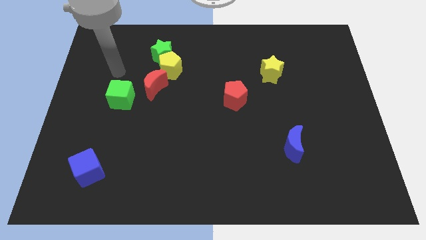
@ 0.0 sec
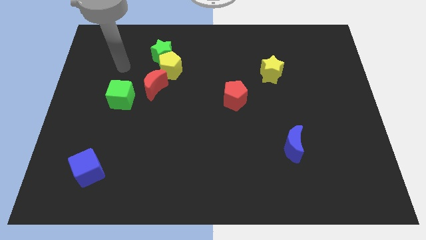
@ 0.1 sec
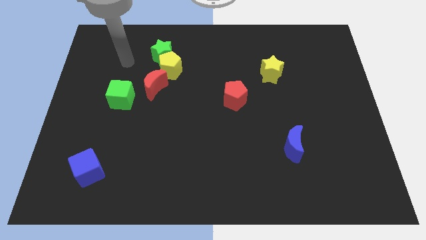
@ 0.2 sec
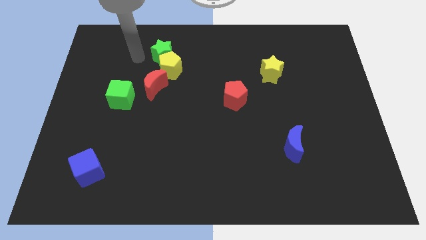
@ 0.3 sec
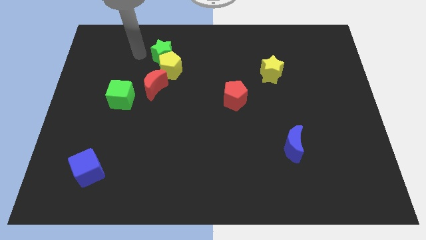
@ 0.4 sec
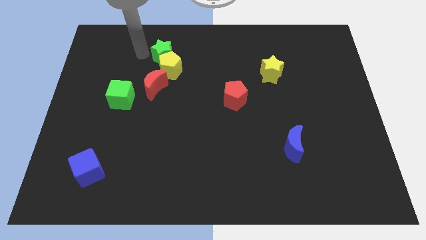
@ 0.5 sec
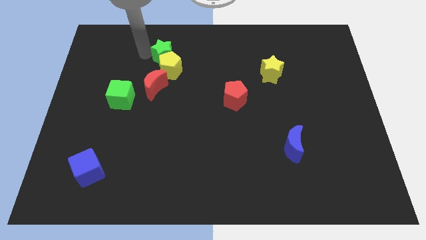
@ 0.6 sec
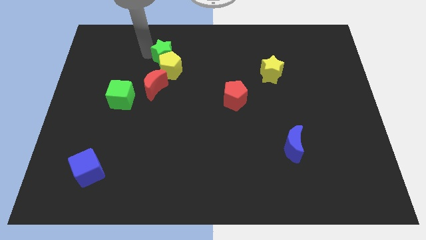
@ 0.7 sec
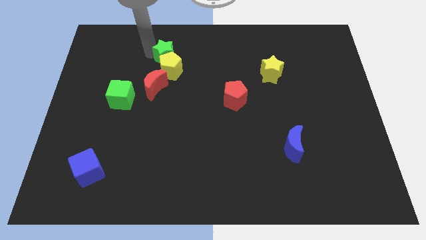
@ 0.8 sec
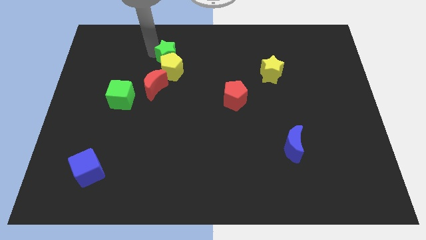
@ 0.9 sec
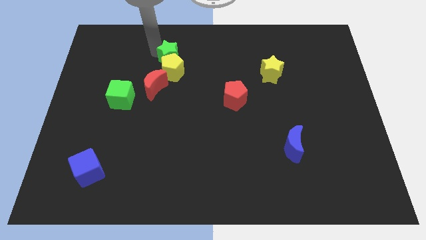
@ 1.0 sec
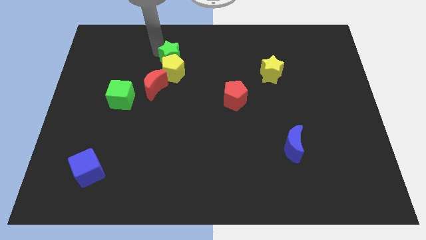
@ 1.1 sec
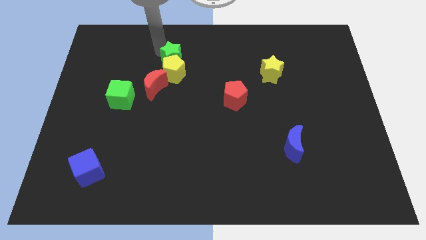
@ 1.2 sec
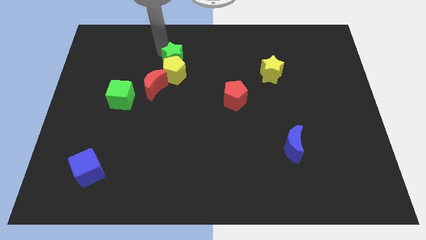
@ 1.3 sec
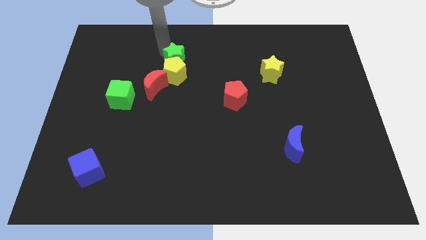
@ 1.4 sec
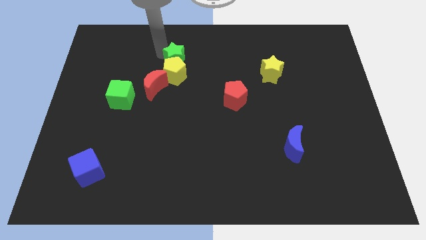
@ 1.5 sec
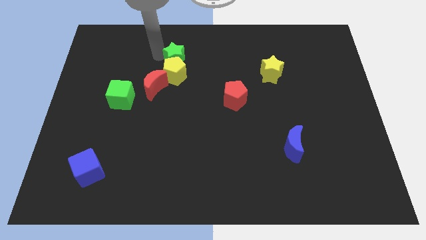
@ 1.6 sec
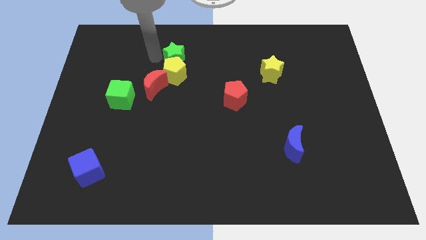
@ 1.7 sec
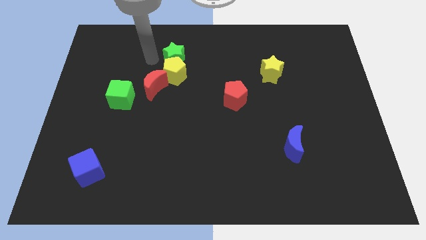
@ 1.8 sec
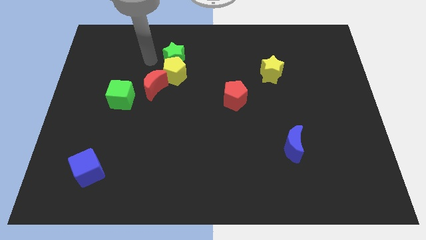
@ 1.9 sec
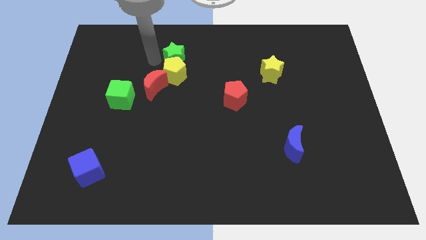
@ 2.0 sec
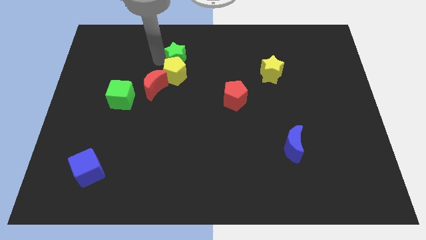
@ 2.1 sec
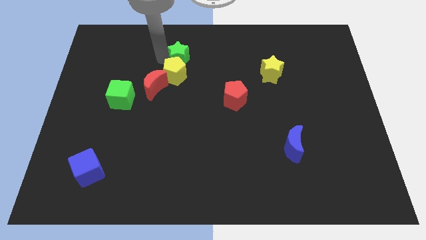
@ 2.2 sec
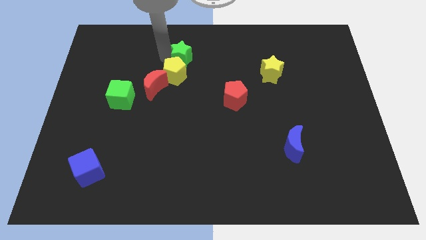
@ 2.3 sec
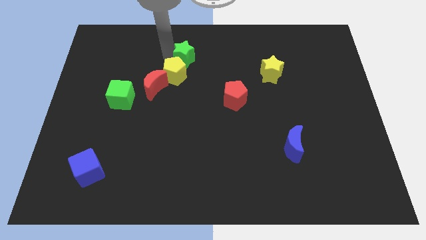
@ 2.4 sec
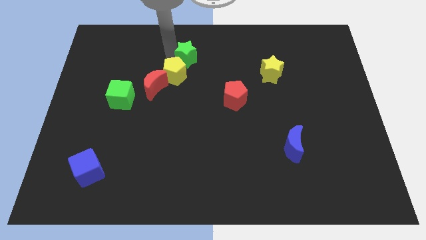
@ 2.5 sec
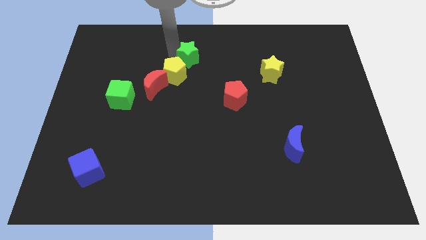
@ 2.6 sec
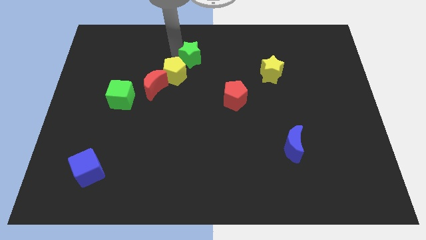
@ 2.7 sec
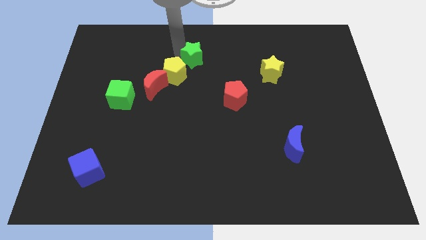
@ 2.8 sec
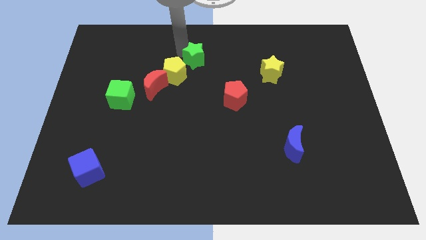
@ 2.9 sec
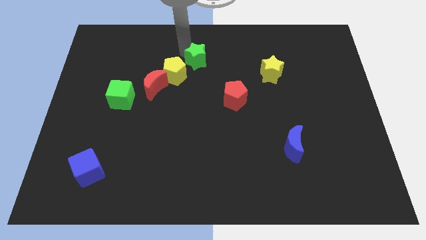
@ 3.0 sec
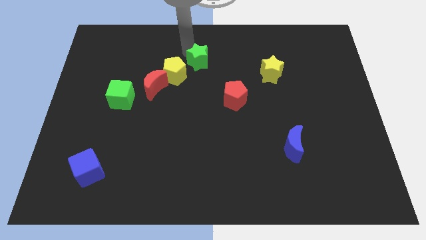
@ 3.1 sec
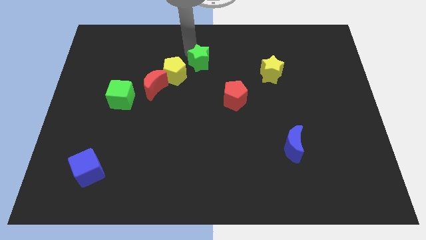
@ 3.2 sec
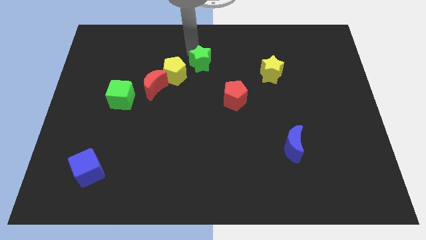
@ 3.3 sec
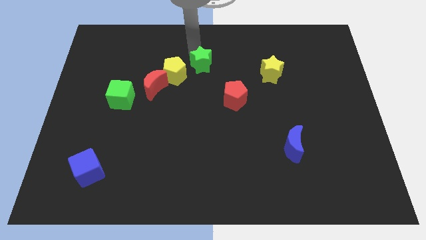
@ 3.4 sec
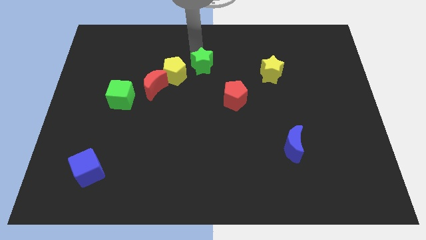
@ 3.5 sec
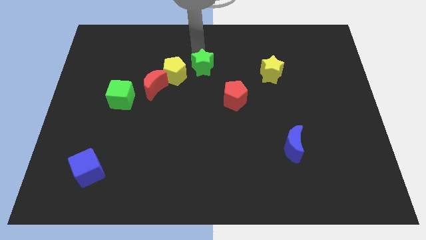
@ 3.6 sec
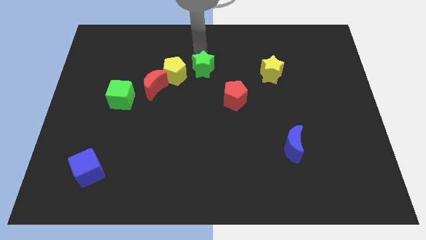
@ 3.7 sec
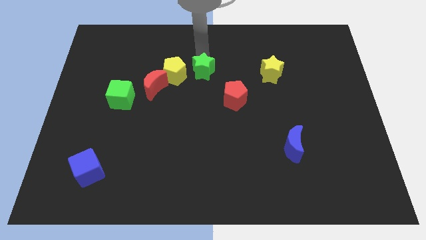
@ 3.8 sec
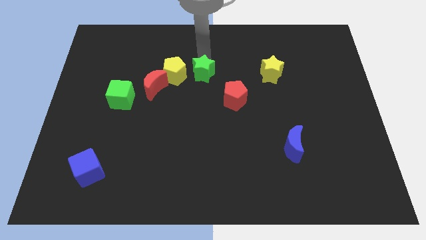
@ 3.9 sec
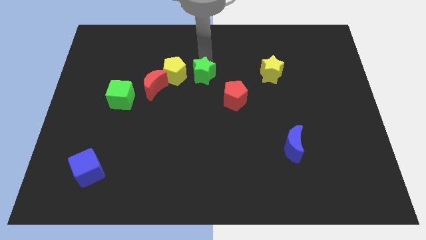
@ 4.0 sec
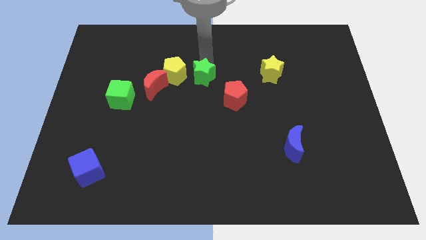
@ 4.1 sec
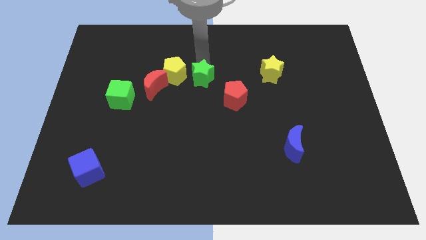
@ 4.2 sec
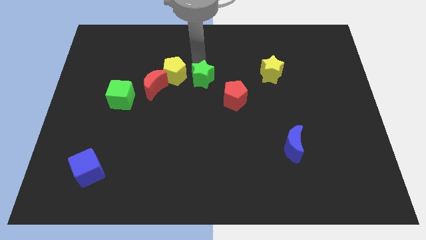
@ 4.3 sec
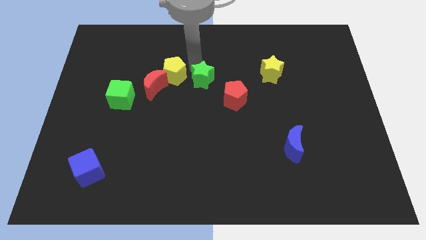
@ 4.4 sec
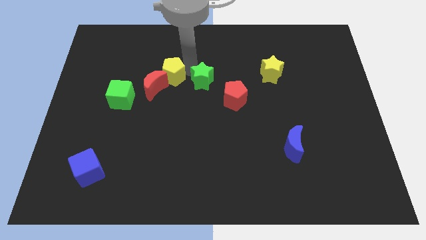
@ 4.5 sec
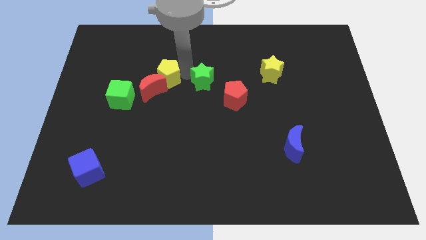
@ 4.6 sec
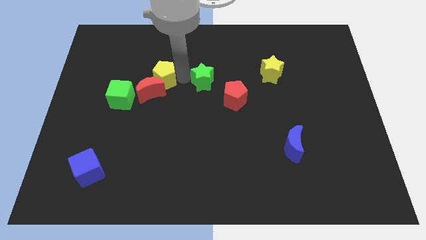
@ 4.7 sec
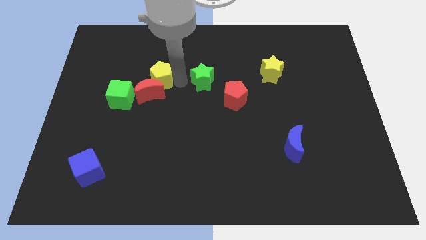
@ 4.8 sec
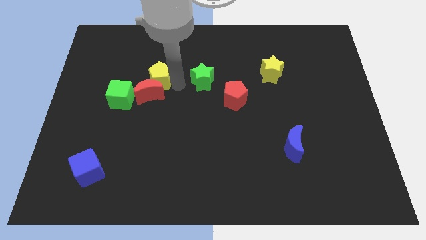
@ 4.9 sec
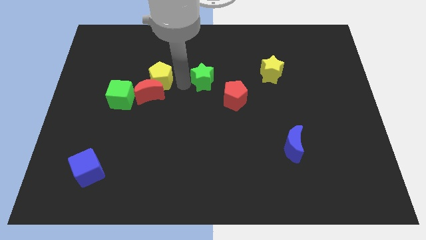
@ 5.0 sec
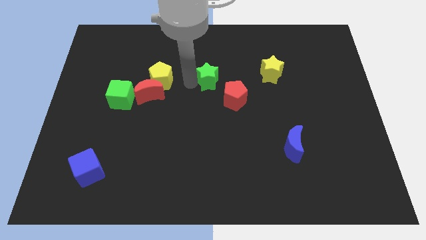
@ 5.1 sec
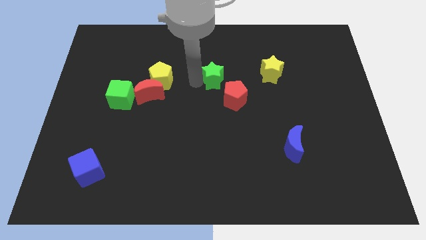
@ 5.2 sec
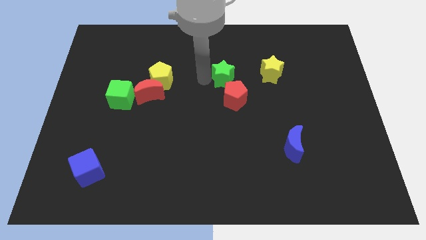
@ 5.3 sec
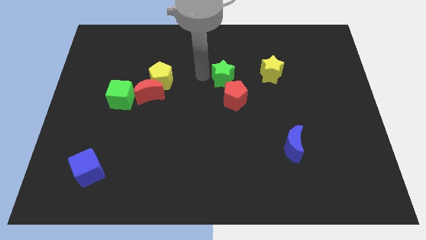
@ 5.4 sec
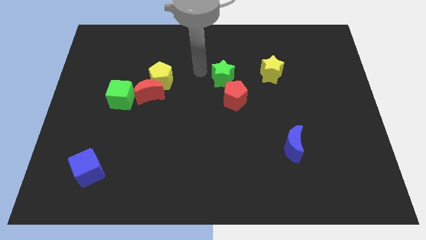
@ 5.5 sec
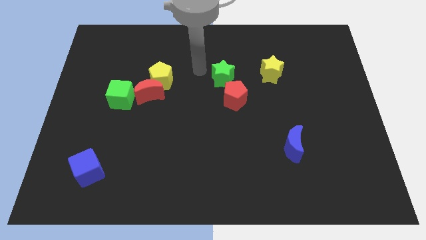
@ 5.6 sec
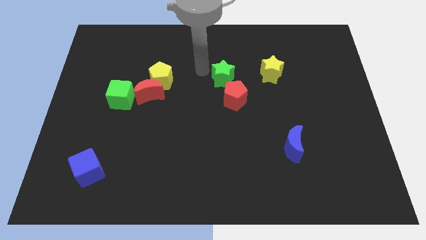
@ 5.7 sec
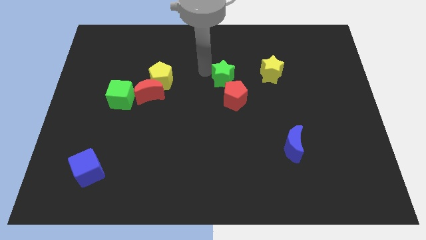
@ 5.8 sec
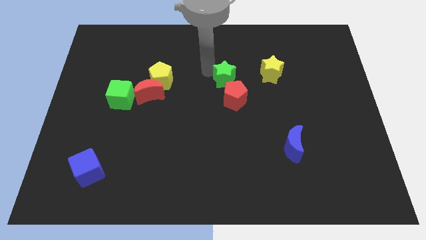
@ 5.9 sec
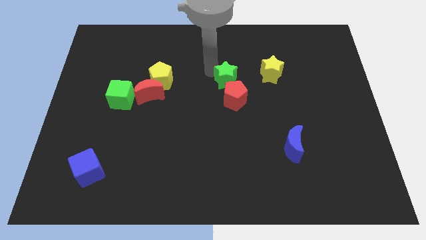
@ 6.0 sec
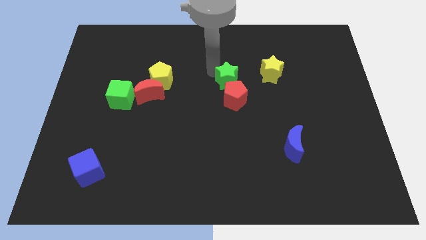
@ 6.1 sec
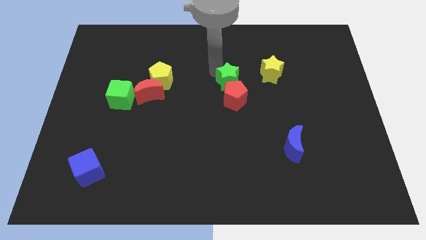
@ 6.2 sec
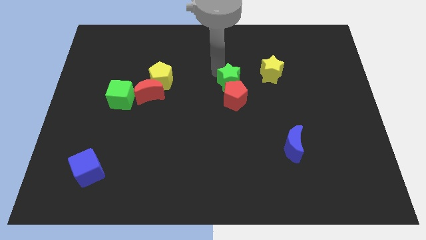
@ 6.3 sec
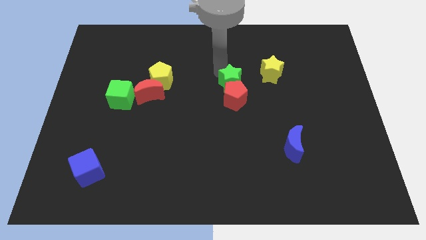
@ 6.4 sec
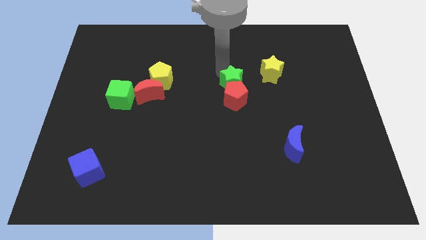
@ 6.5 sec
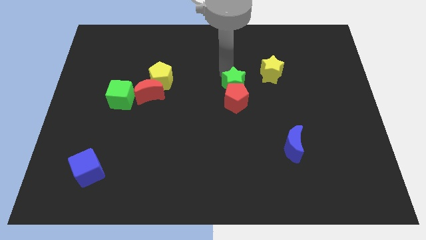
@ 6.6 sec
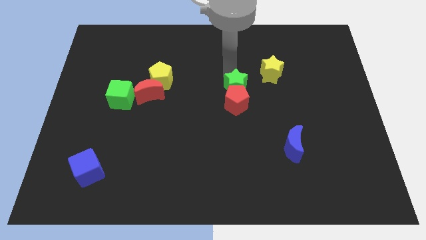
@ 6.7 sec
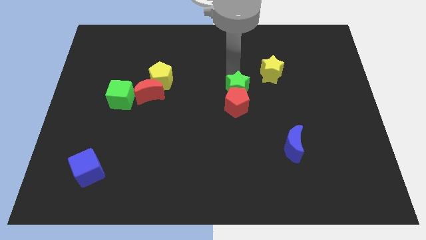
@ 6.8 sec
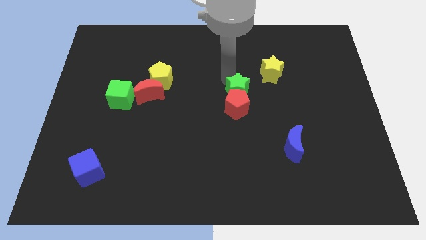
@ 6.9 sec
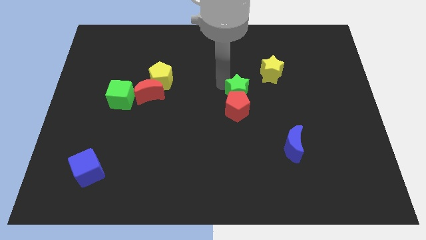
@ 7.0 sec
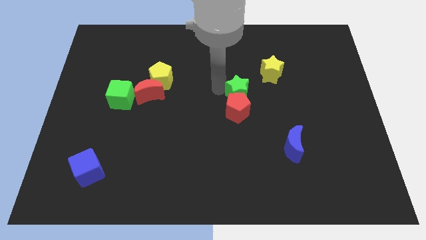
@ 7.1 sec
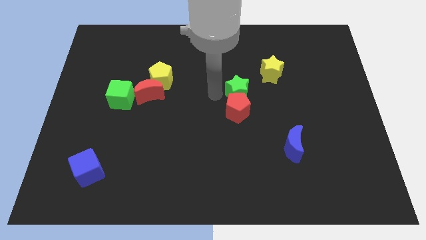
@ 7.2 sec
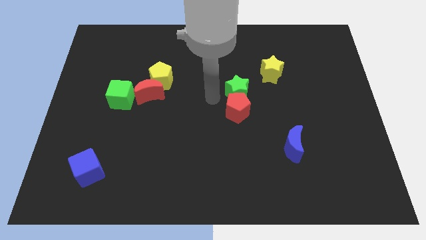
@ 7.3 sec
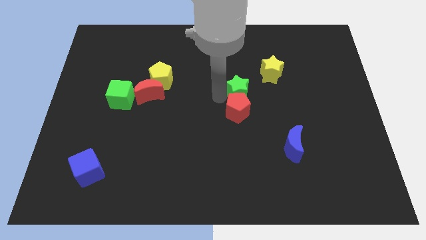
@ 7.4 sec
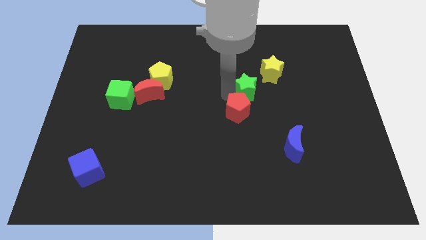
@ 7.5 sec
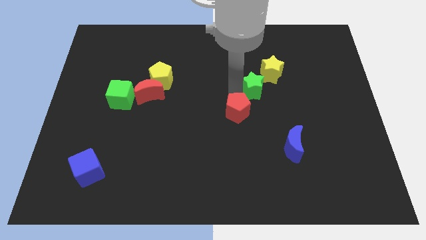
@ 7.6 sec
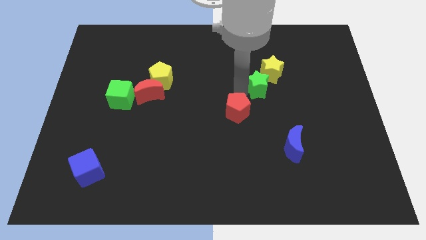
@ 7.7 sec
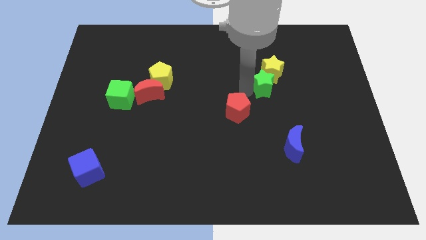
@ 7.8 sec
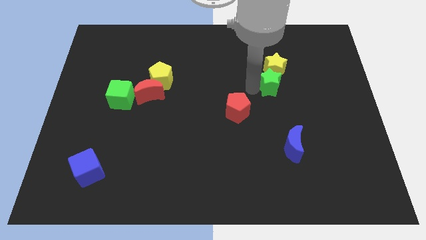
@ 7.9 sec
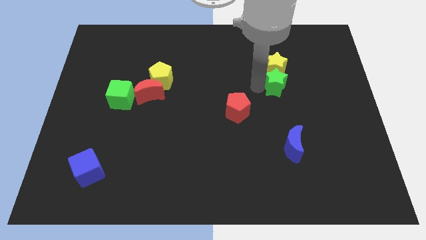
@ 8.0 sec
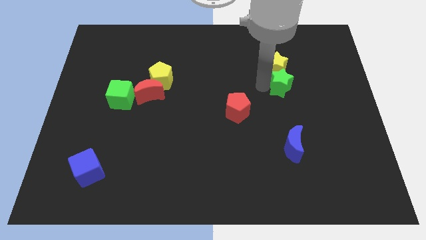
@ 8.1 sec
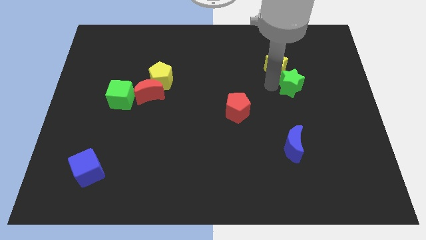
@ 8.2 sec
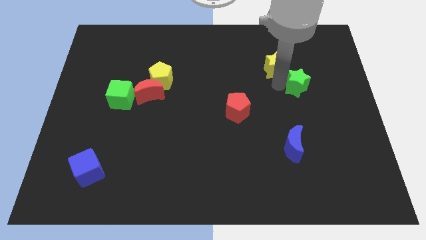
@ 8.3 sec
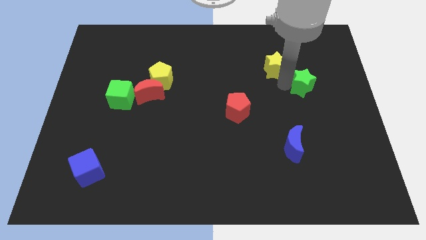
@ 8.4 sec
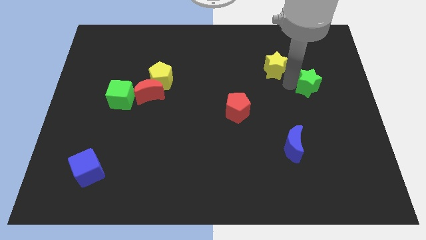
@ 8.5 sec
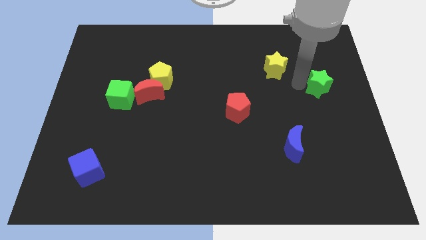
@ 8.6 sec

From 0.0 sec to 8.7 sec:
push the green star to the right side
